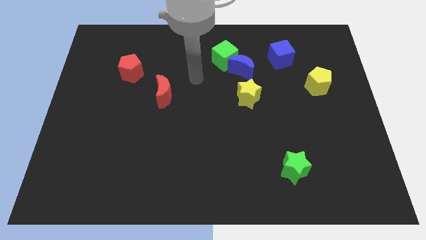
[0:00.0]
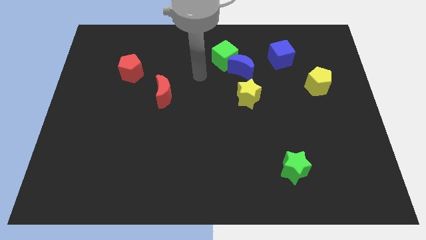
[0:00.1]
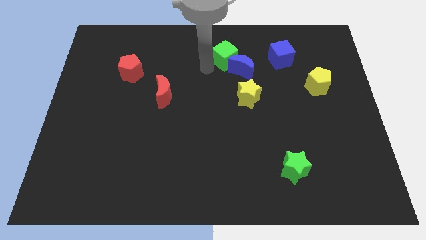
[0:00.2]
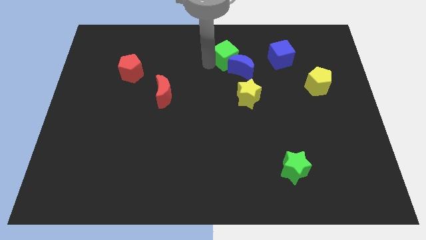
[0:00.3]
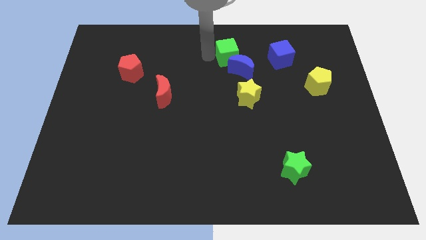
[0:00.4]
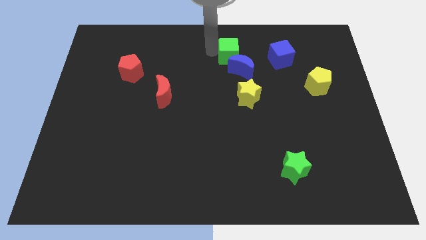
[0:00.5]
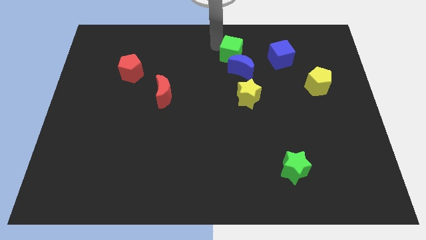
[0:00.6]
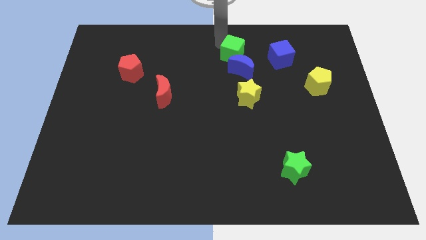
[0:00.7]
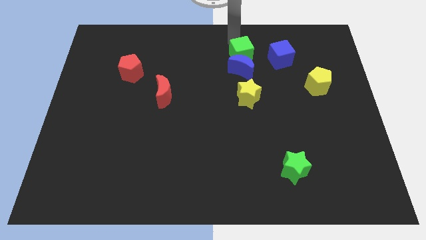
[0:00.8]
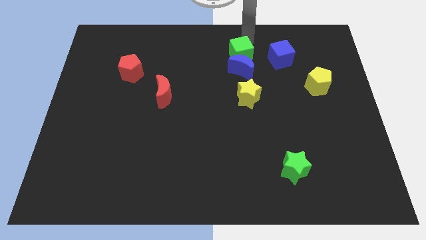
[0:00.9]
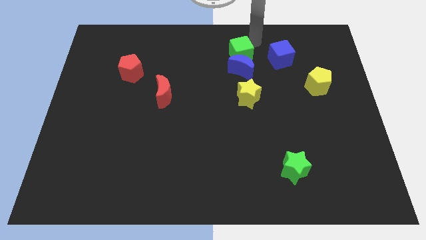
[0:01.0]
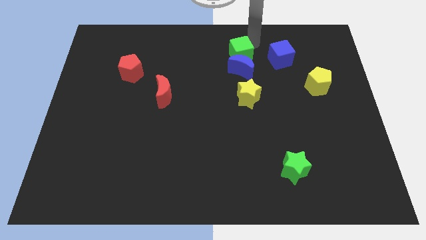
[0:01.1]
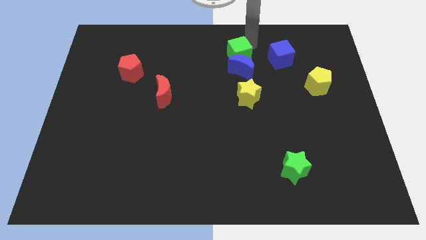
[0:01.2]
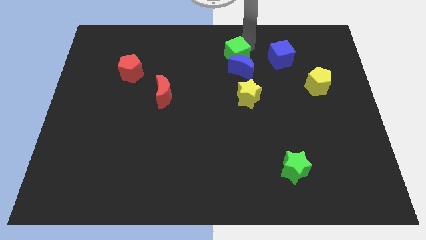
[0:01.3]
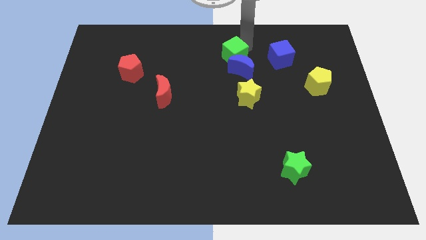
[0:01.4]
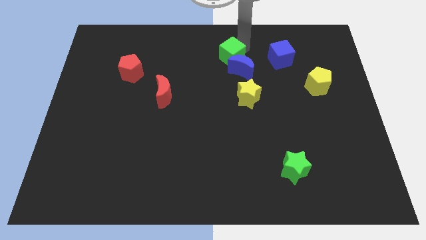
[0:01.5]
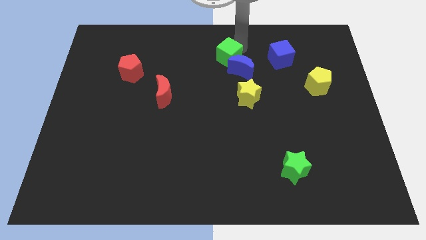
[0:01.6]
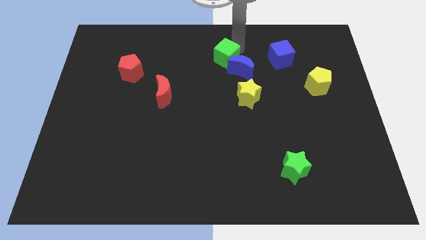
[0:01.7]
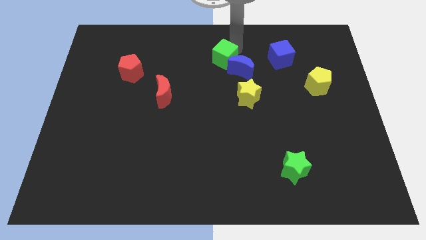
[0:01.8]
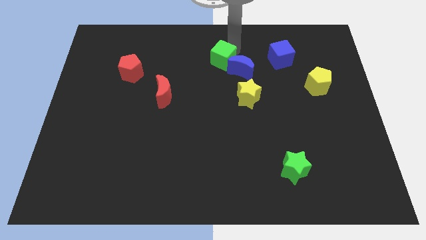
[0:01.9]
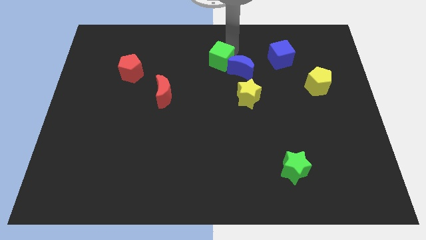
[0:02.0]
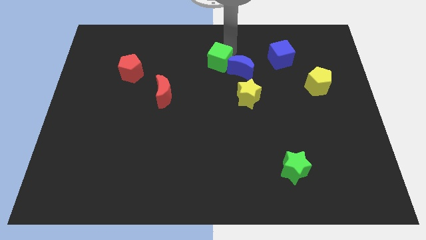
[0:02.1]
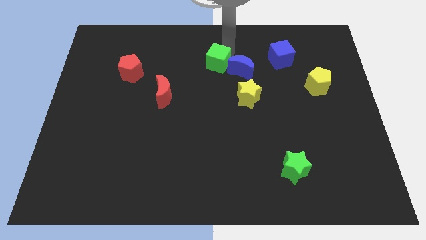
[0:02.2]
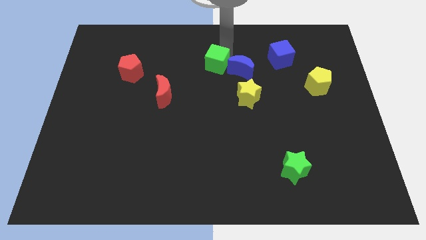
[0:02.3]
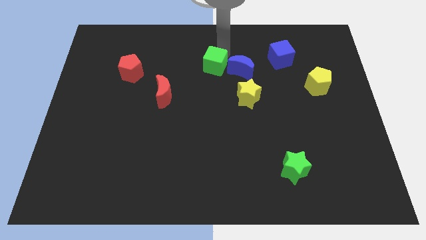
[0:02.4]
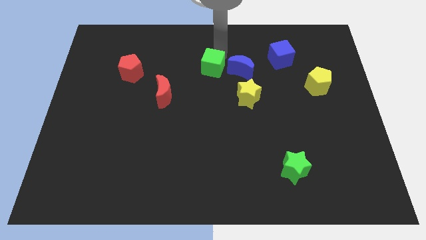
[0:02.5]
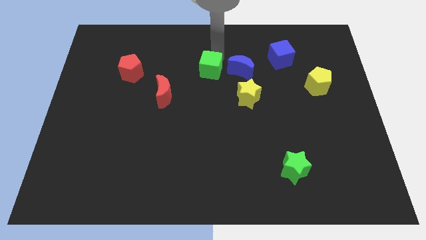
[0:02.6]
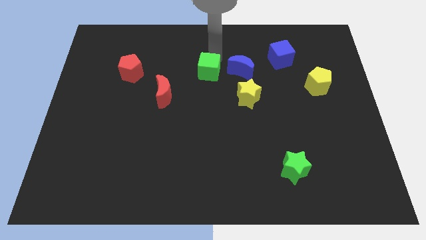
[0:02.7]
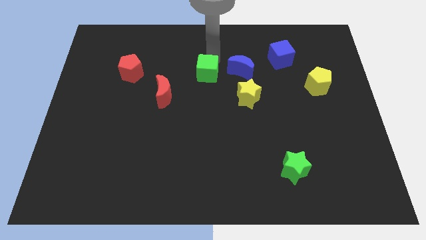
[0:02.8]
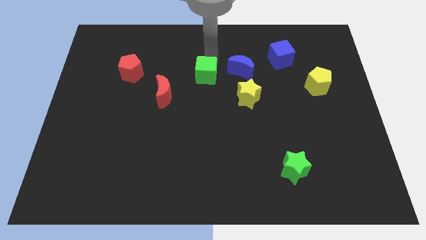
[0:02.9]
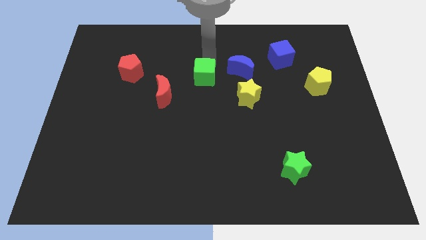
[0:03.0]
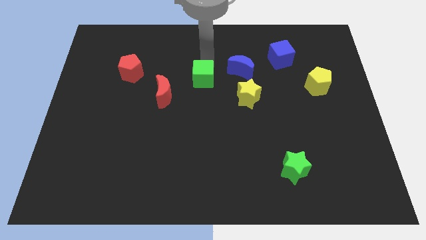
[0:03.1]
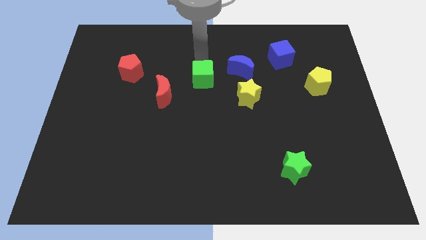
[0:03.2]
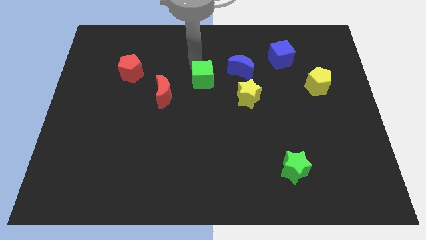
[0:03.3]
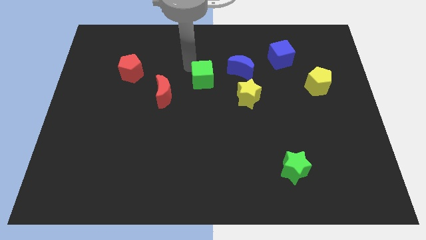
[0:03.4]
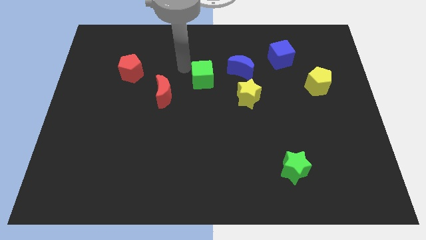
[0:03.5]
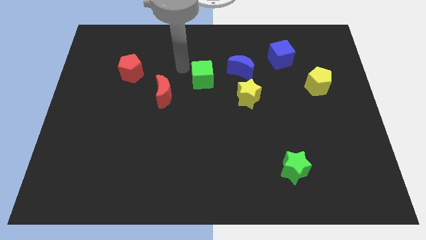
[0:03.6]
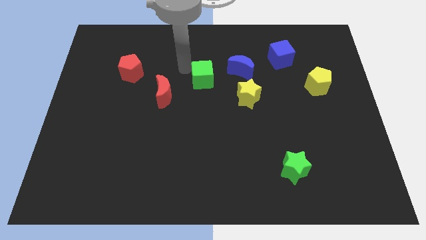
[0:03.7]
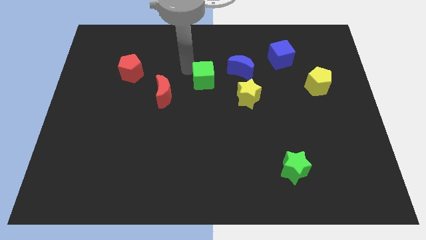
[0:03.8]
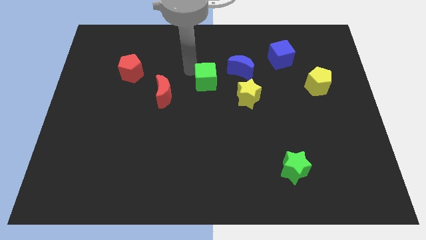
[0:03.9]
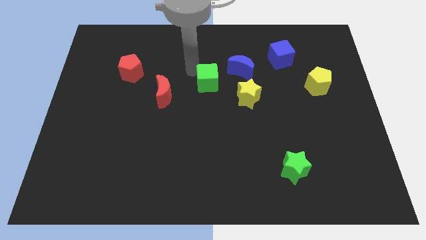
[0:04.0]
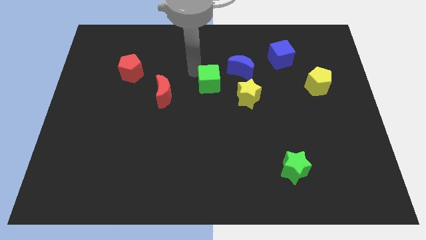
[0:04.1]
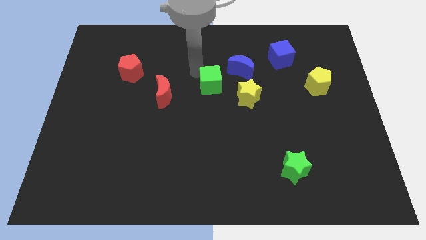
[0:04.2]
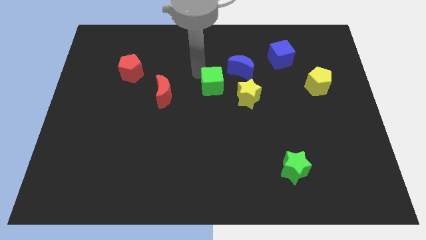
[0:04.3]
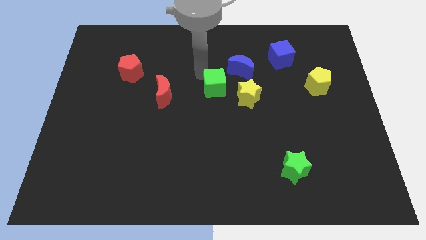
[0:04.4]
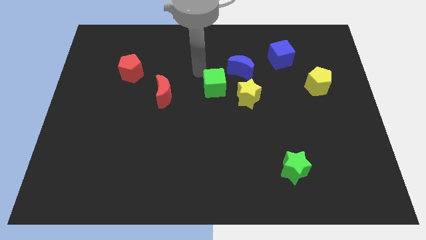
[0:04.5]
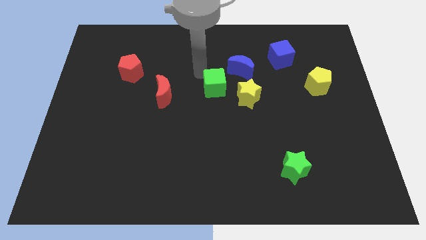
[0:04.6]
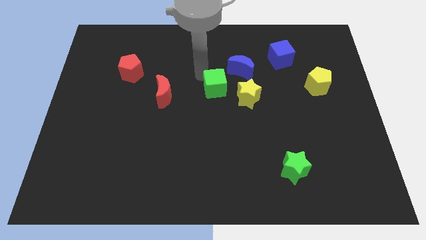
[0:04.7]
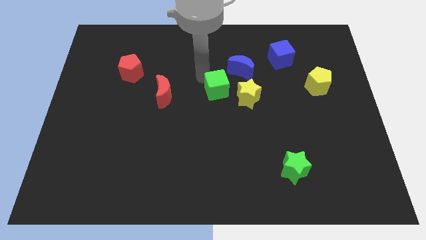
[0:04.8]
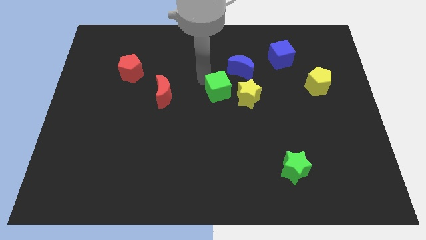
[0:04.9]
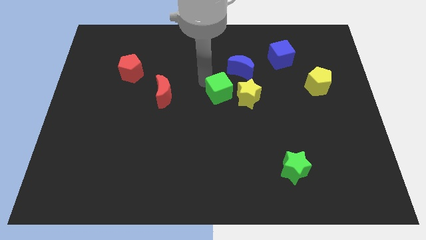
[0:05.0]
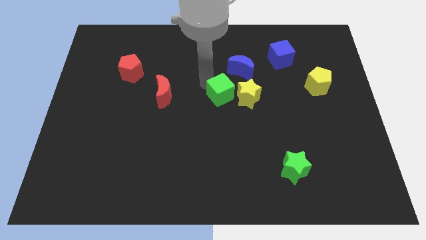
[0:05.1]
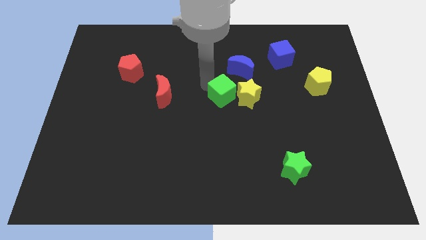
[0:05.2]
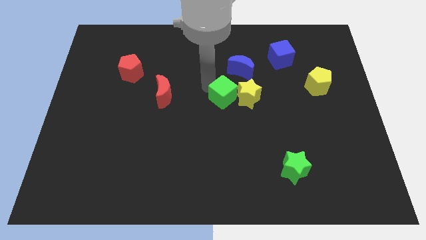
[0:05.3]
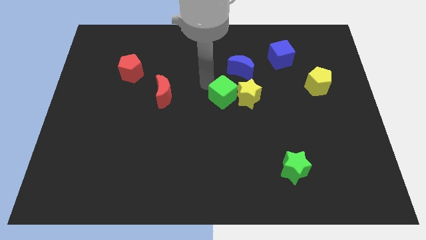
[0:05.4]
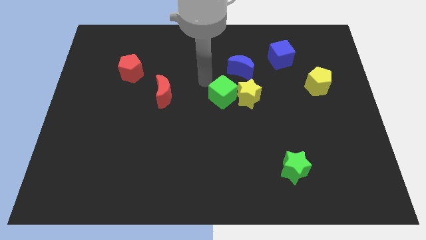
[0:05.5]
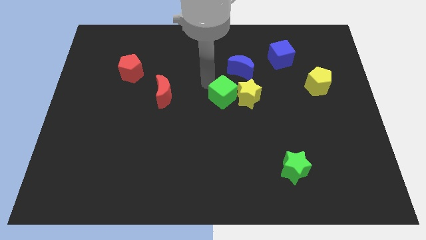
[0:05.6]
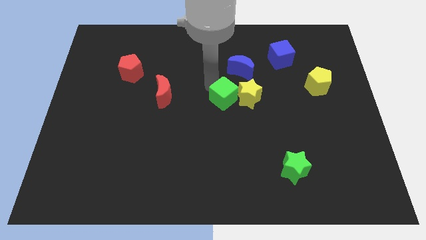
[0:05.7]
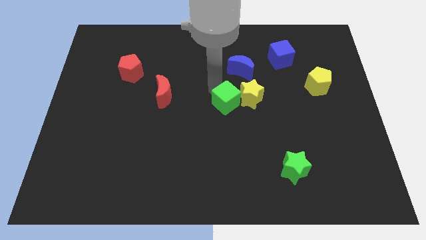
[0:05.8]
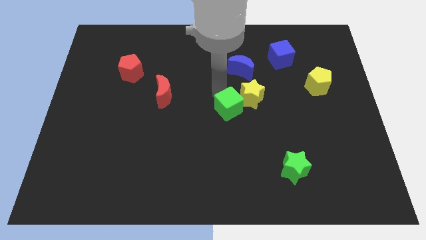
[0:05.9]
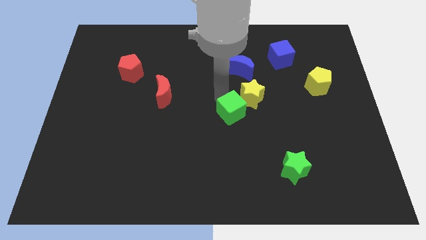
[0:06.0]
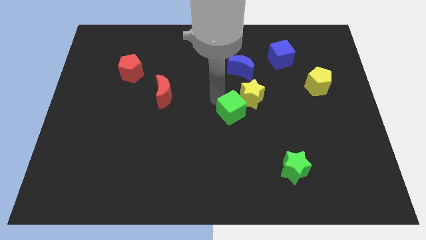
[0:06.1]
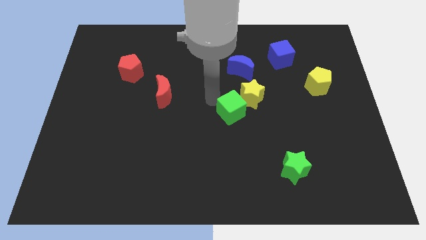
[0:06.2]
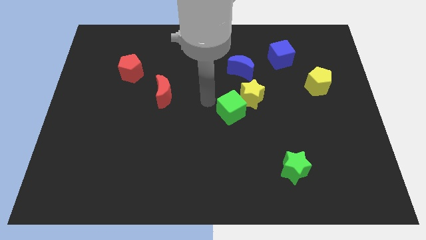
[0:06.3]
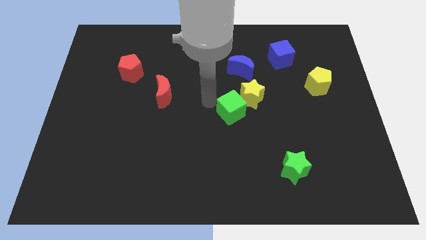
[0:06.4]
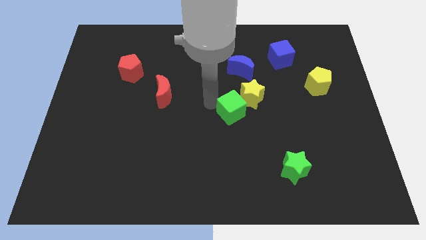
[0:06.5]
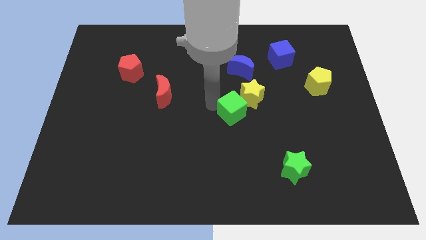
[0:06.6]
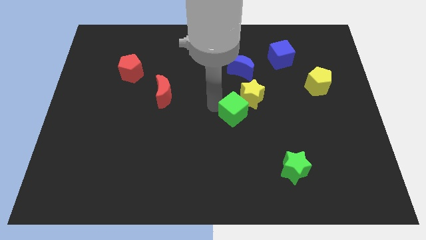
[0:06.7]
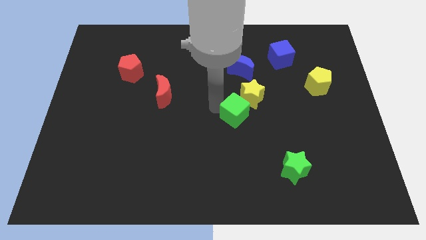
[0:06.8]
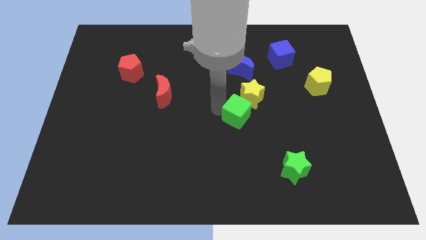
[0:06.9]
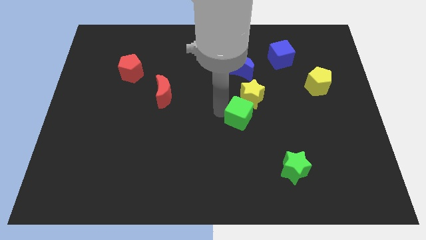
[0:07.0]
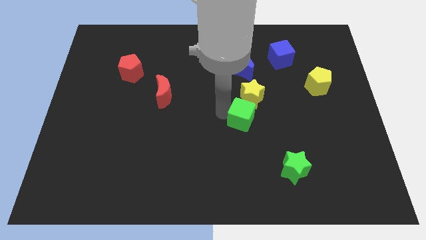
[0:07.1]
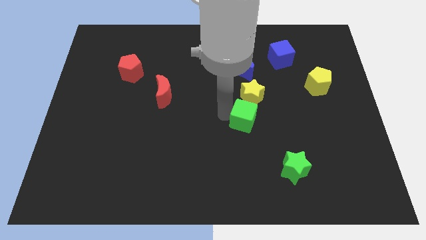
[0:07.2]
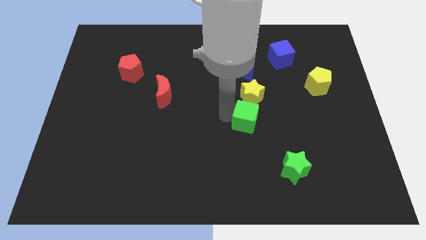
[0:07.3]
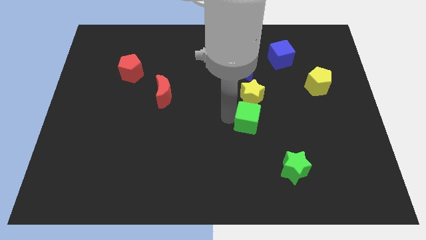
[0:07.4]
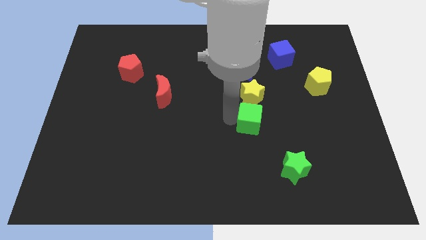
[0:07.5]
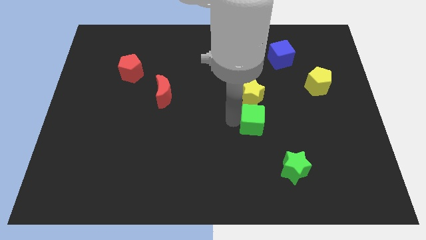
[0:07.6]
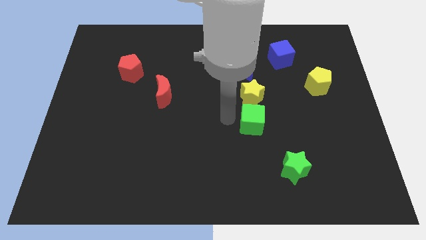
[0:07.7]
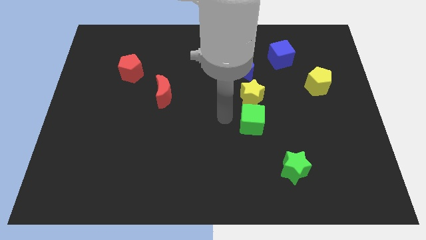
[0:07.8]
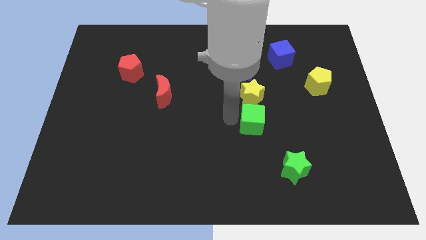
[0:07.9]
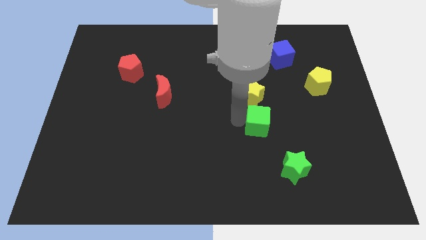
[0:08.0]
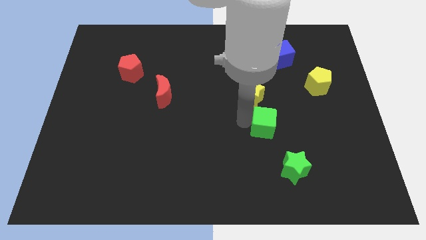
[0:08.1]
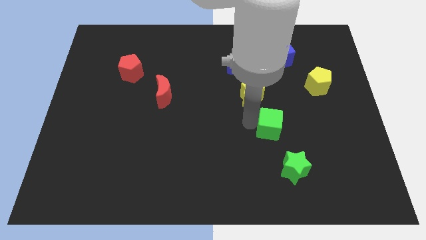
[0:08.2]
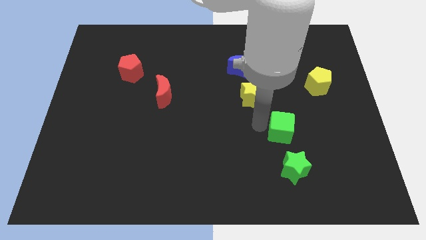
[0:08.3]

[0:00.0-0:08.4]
slide the green cube downwards and then right
